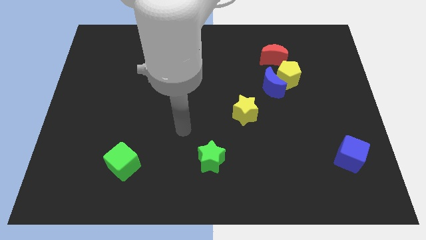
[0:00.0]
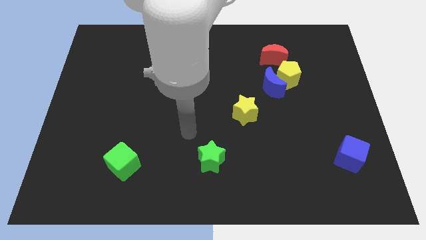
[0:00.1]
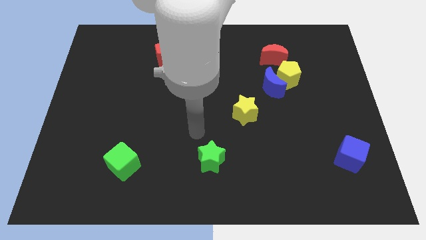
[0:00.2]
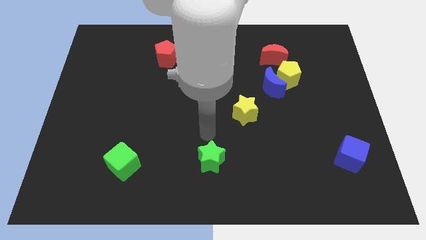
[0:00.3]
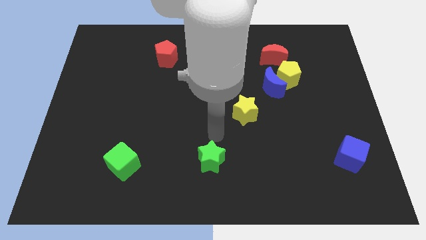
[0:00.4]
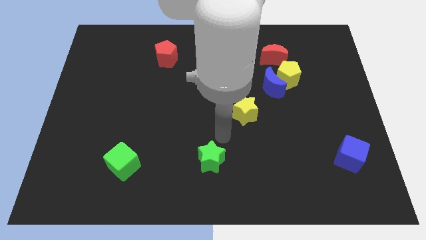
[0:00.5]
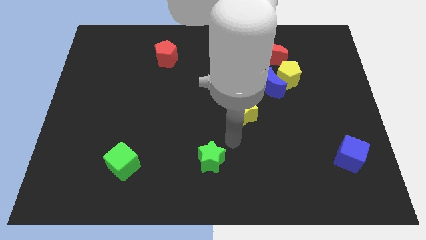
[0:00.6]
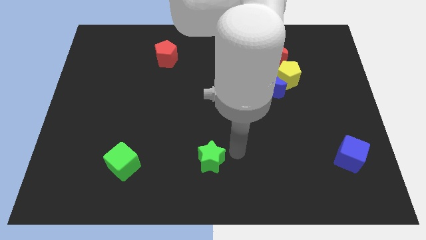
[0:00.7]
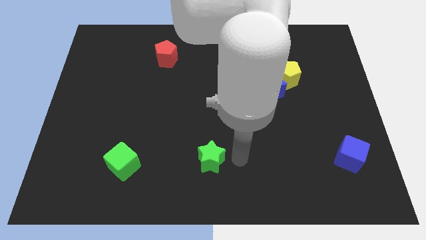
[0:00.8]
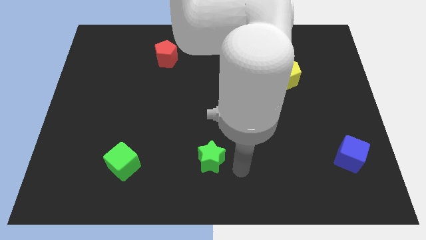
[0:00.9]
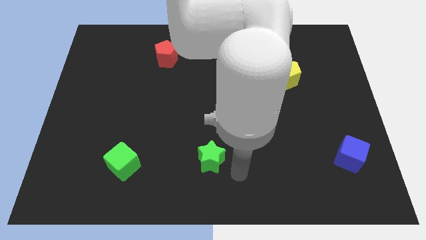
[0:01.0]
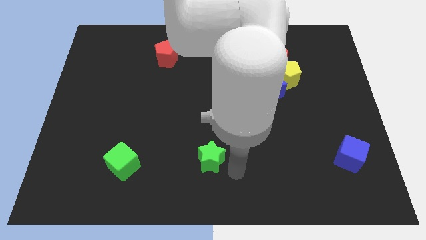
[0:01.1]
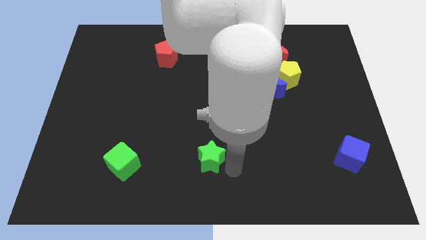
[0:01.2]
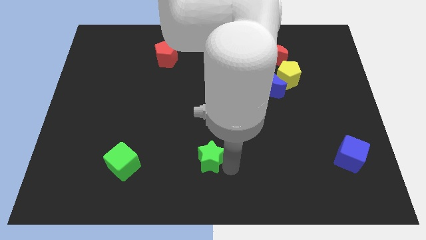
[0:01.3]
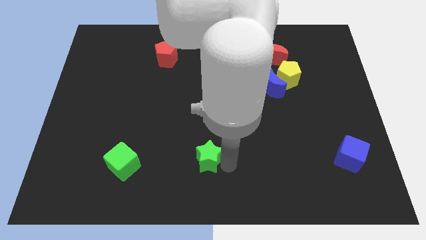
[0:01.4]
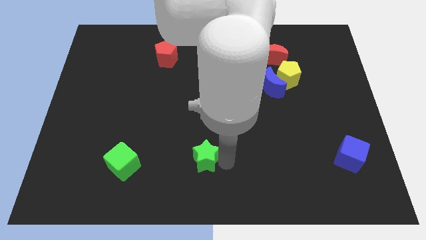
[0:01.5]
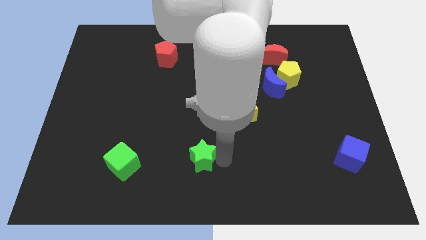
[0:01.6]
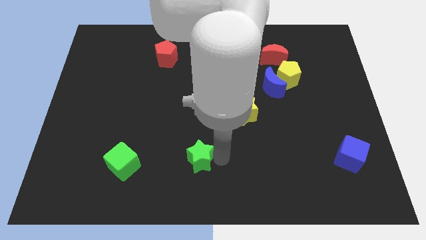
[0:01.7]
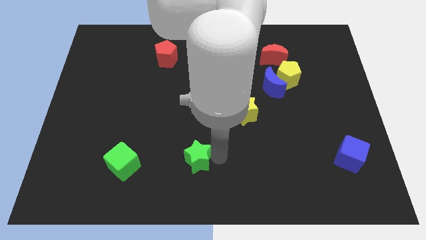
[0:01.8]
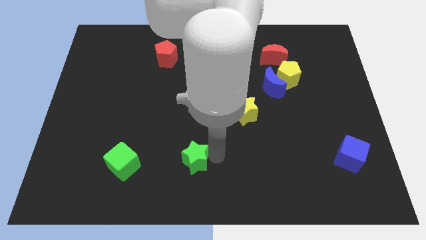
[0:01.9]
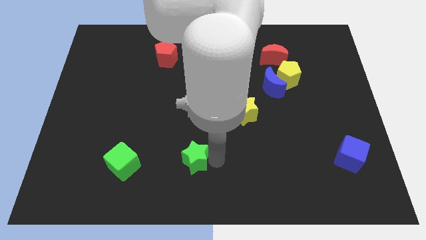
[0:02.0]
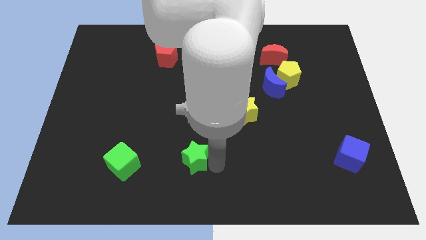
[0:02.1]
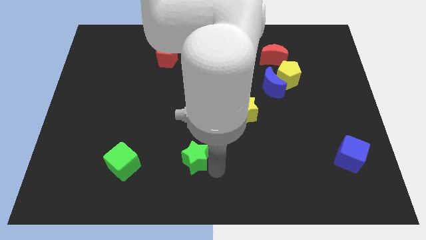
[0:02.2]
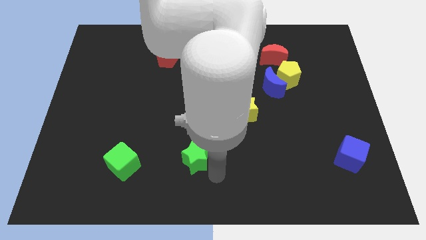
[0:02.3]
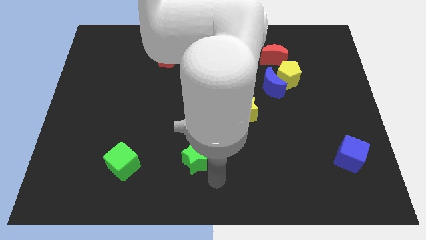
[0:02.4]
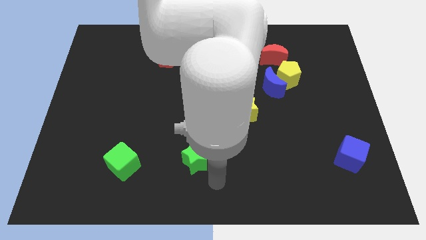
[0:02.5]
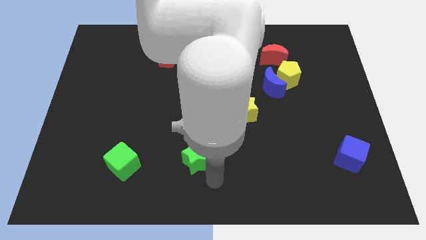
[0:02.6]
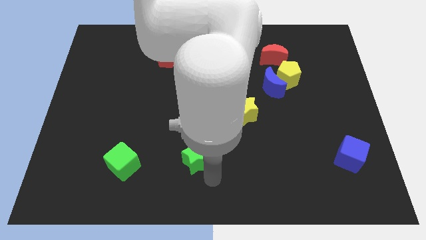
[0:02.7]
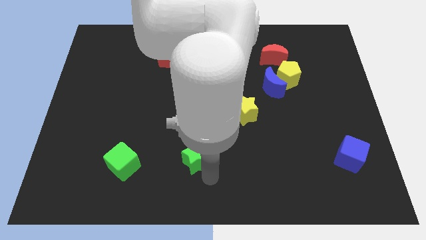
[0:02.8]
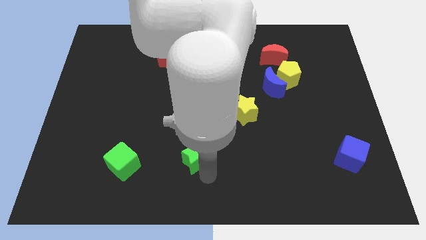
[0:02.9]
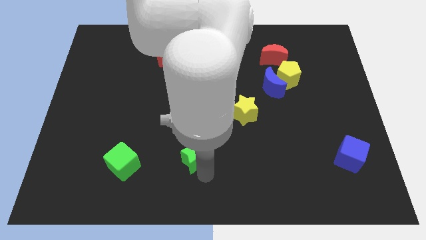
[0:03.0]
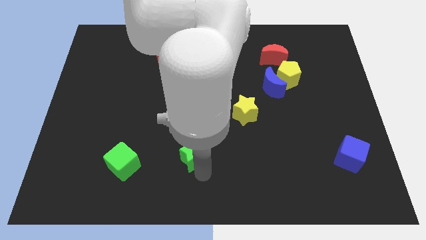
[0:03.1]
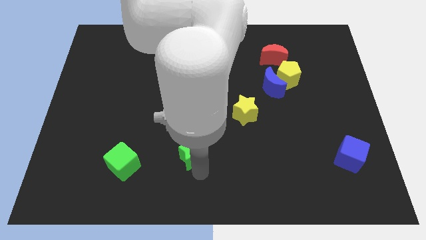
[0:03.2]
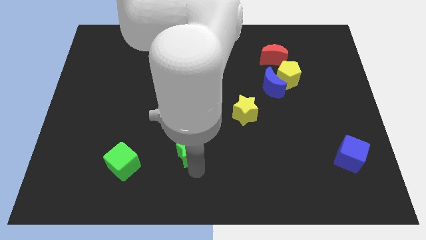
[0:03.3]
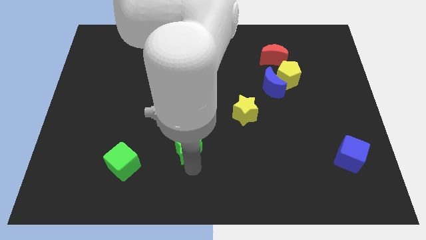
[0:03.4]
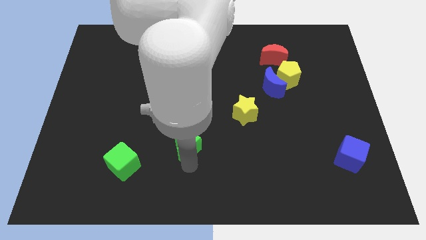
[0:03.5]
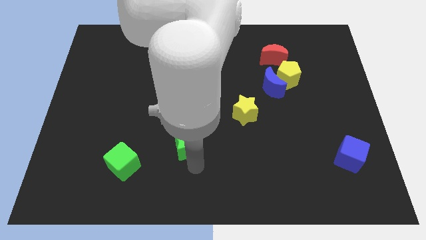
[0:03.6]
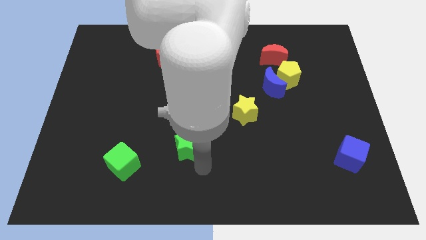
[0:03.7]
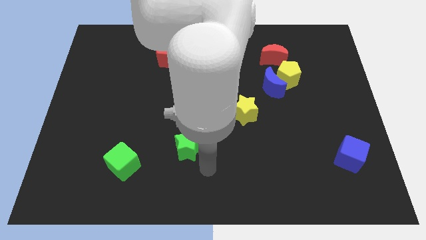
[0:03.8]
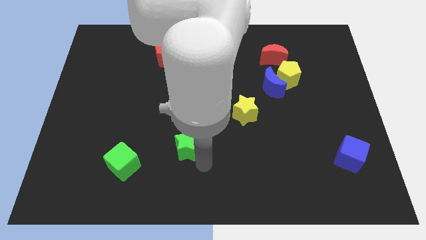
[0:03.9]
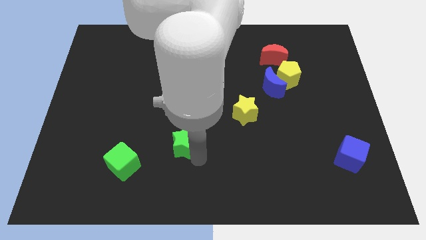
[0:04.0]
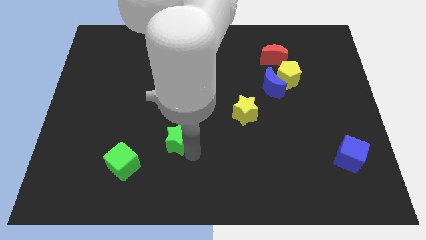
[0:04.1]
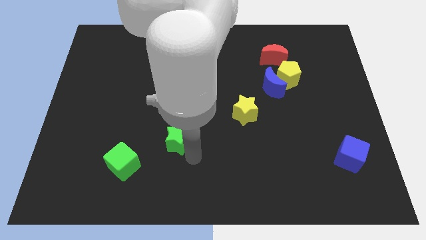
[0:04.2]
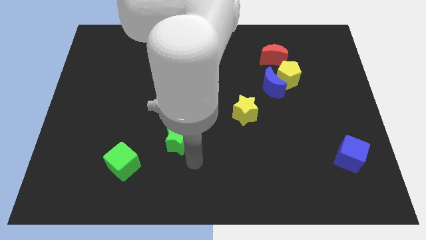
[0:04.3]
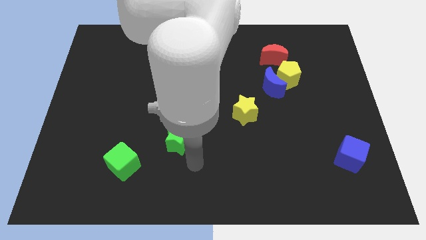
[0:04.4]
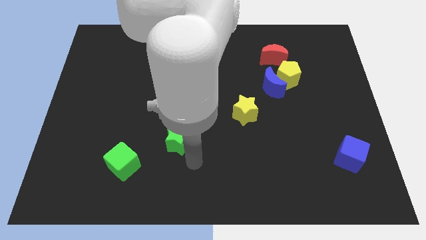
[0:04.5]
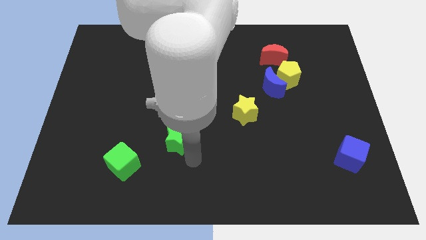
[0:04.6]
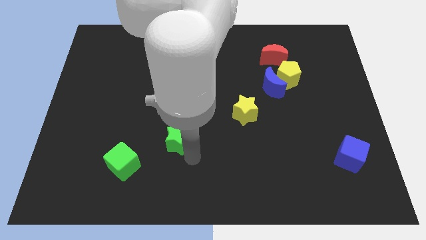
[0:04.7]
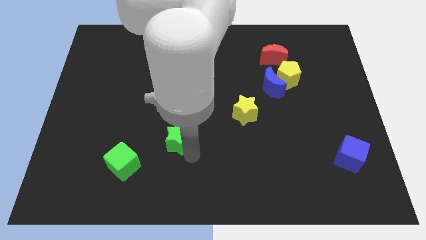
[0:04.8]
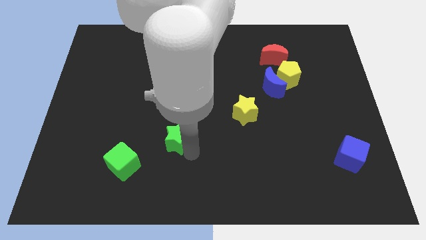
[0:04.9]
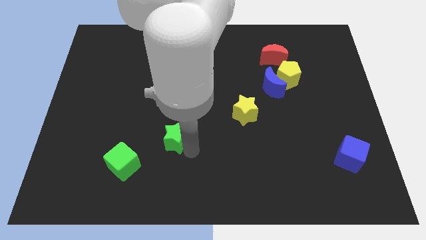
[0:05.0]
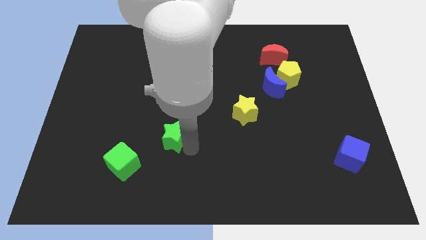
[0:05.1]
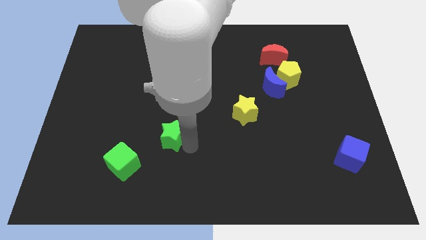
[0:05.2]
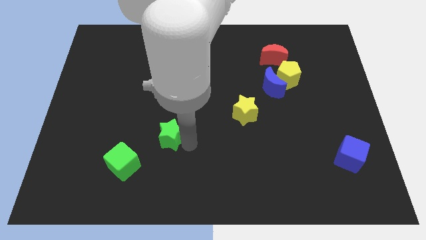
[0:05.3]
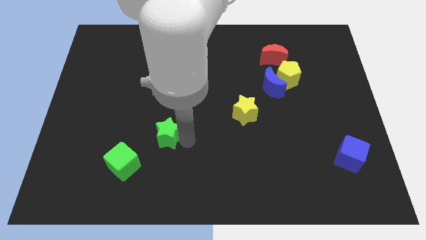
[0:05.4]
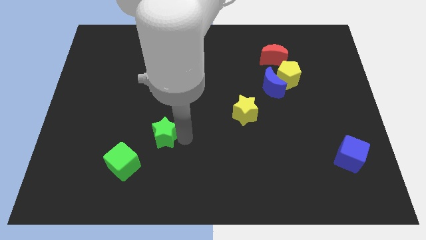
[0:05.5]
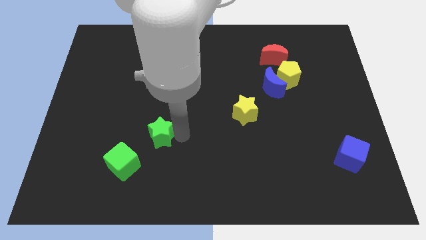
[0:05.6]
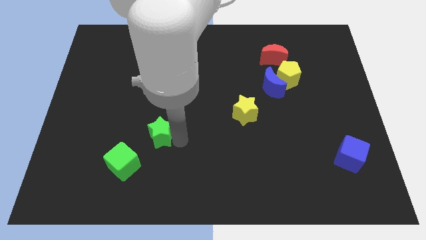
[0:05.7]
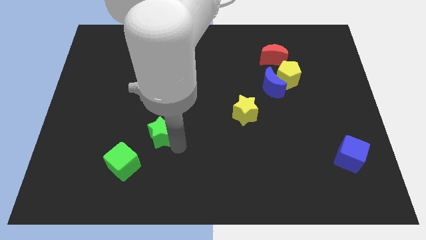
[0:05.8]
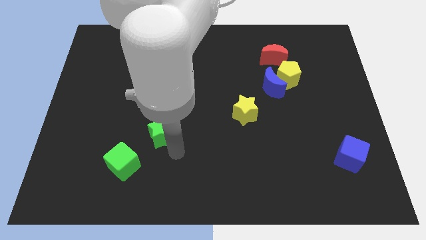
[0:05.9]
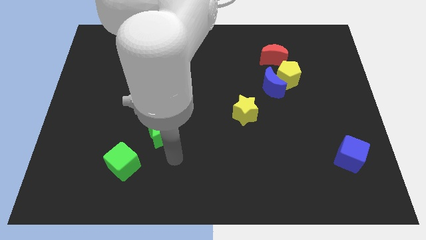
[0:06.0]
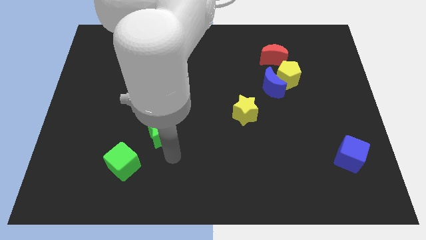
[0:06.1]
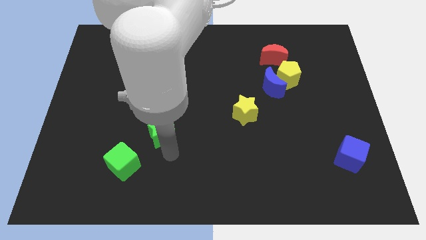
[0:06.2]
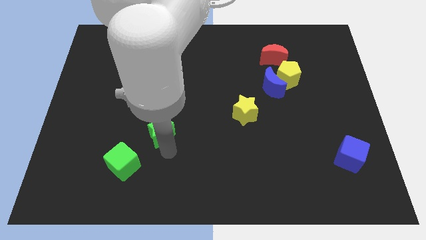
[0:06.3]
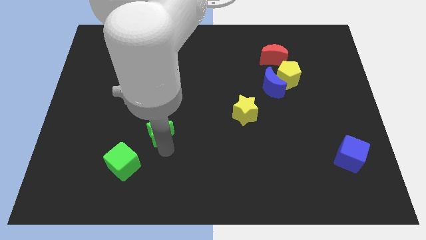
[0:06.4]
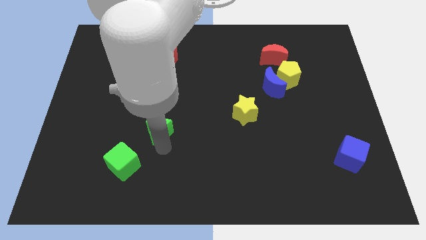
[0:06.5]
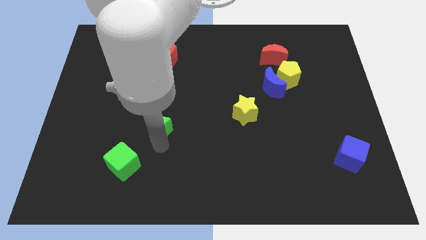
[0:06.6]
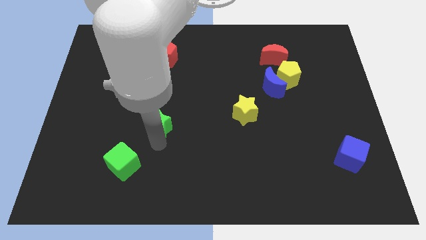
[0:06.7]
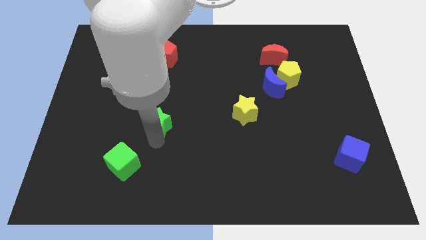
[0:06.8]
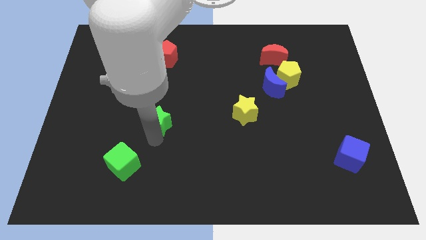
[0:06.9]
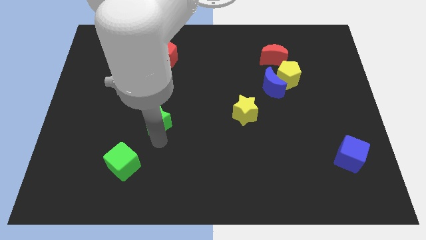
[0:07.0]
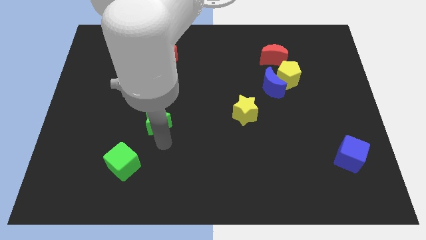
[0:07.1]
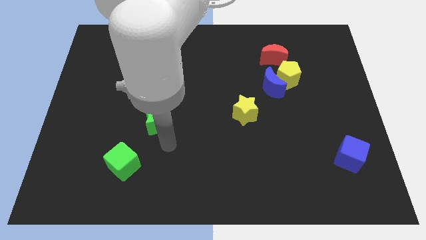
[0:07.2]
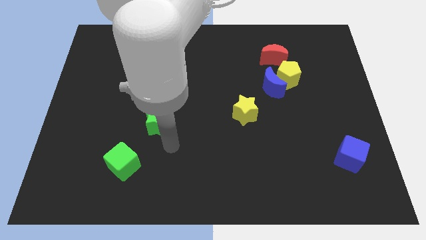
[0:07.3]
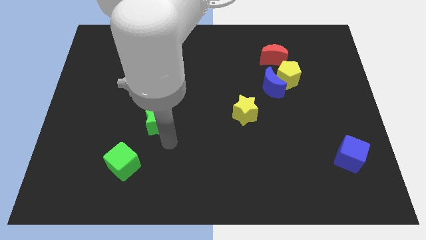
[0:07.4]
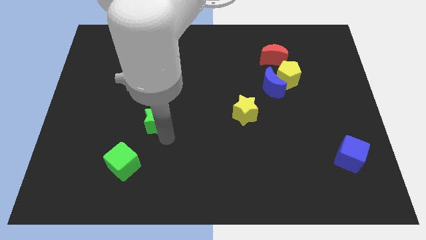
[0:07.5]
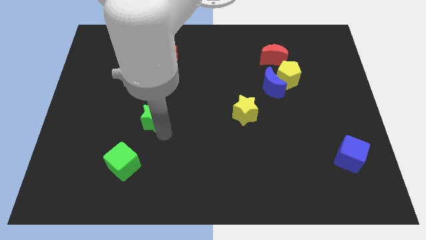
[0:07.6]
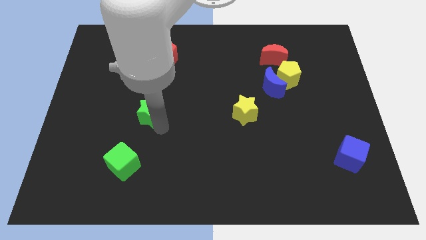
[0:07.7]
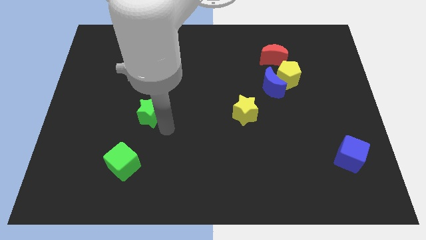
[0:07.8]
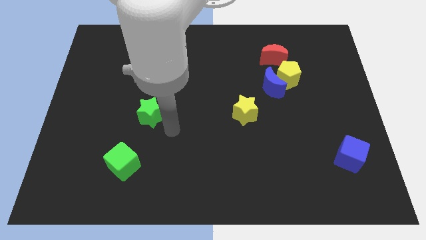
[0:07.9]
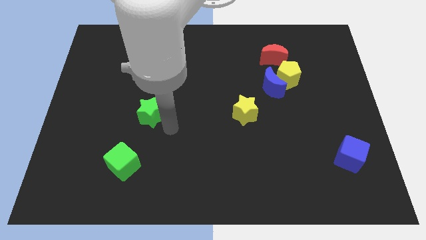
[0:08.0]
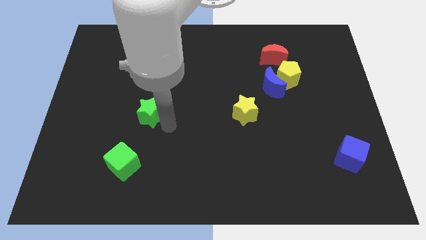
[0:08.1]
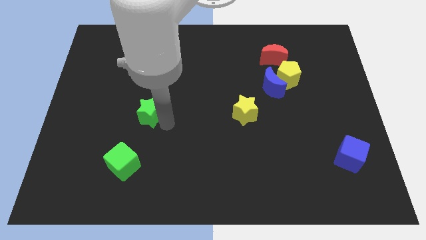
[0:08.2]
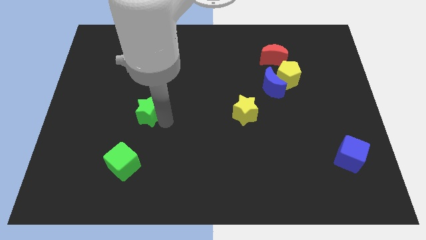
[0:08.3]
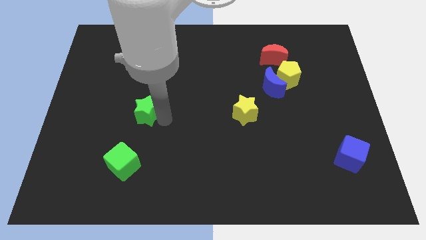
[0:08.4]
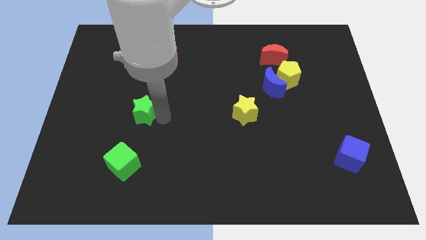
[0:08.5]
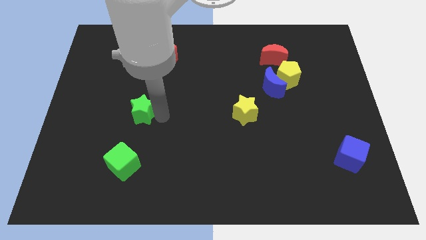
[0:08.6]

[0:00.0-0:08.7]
slide the green star up and left diagonally
